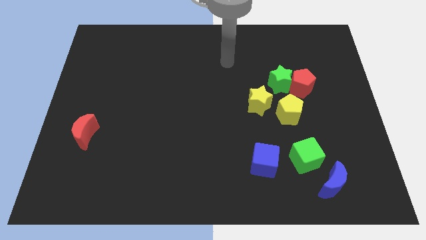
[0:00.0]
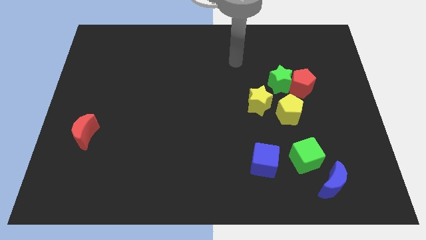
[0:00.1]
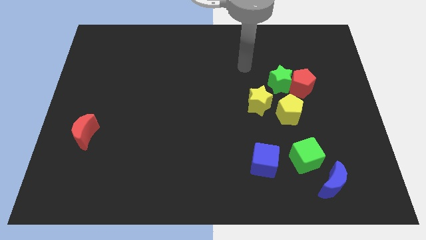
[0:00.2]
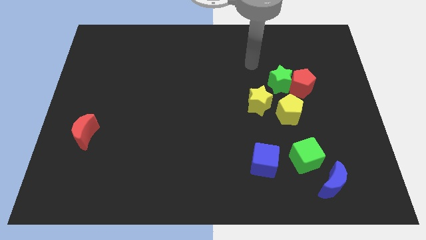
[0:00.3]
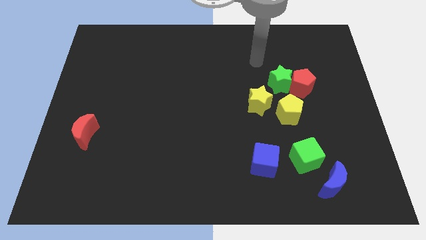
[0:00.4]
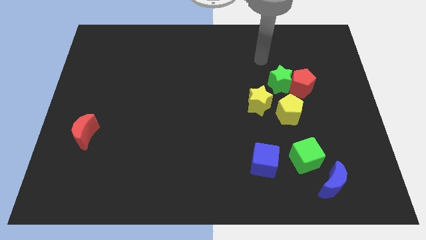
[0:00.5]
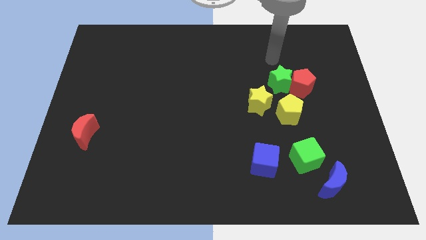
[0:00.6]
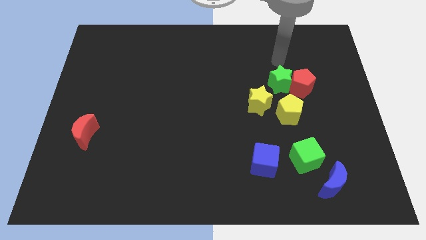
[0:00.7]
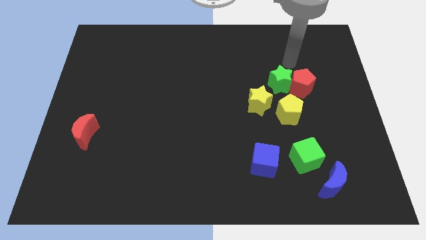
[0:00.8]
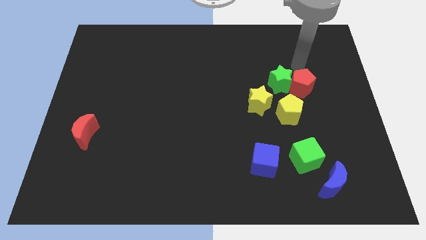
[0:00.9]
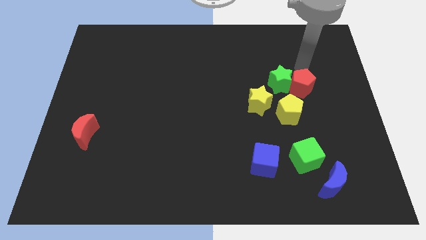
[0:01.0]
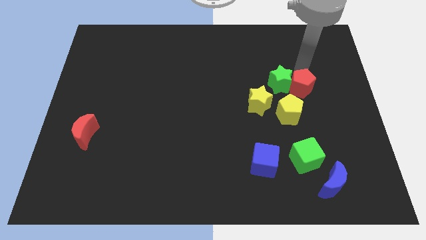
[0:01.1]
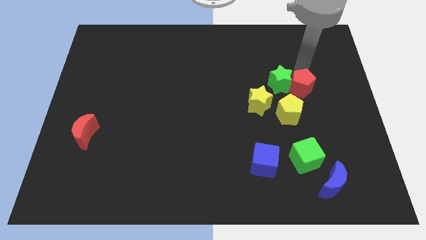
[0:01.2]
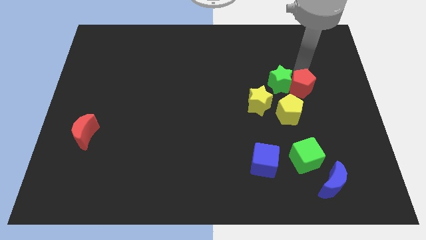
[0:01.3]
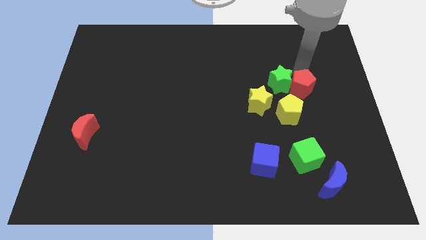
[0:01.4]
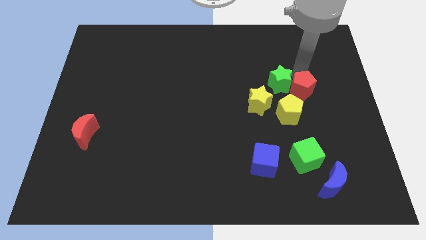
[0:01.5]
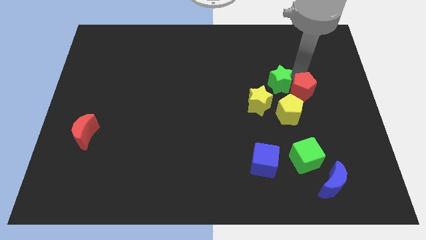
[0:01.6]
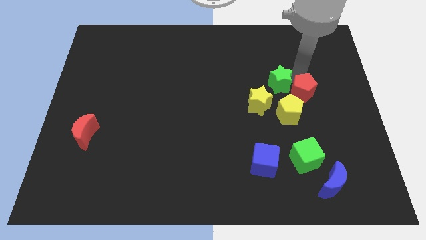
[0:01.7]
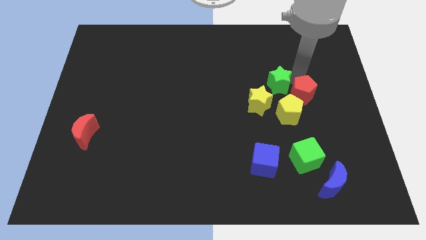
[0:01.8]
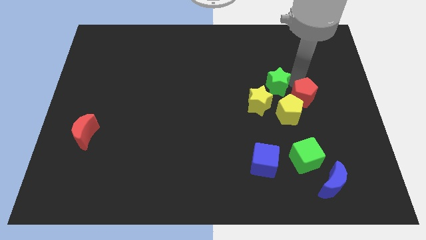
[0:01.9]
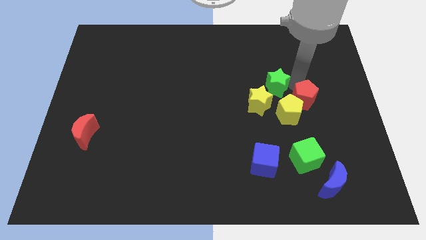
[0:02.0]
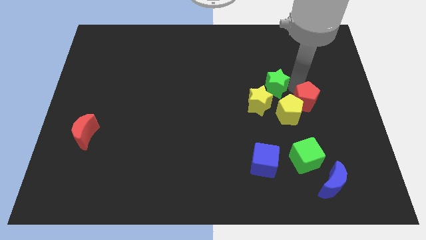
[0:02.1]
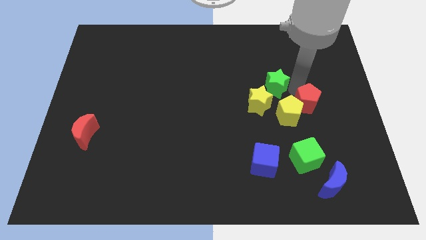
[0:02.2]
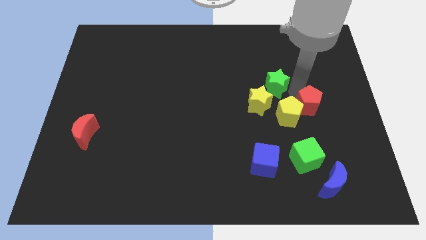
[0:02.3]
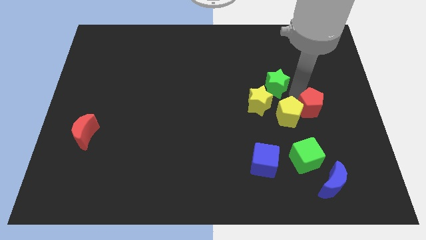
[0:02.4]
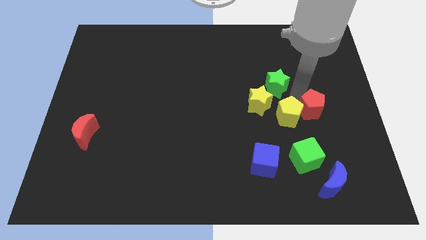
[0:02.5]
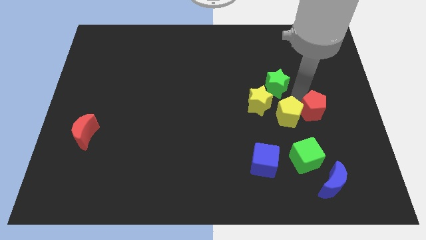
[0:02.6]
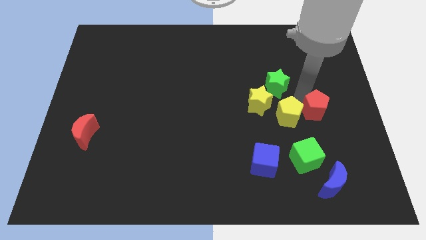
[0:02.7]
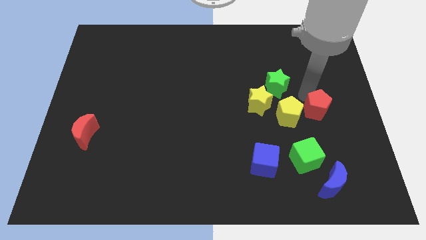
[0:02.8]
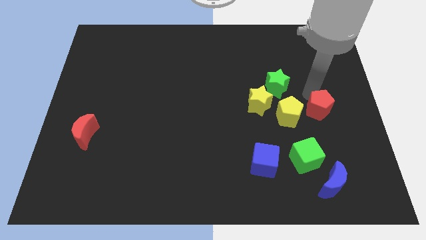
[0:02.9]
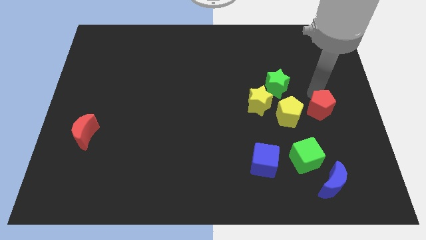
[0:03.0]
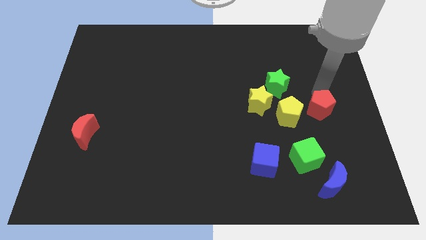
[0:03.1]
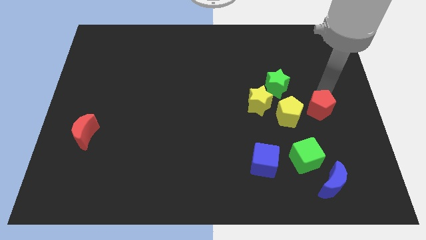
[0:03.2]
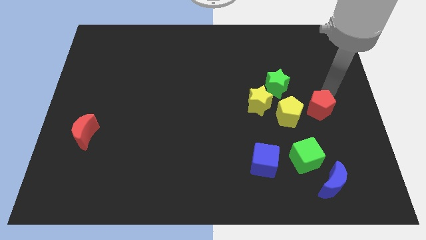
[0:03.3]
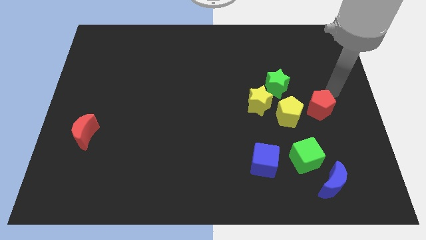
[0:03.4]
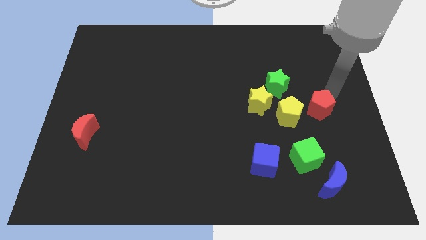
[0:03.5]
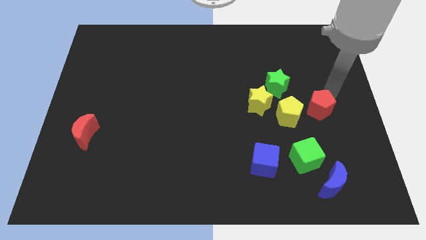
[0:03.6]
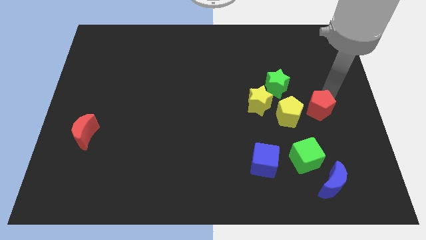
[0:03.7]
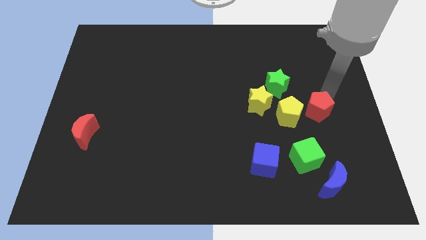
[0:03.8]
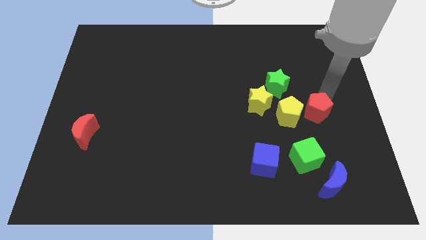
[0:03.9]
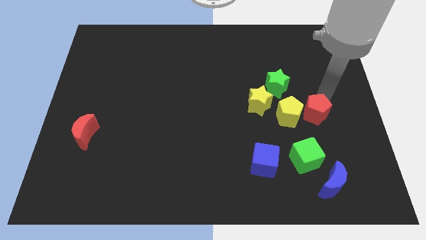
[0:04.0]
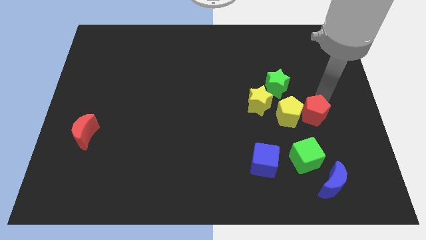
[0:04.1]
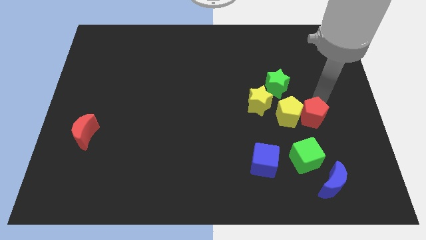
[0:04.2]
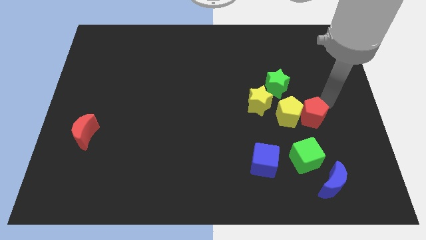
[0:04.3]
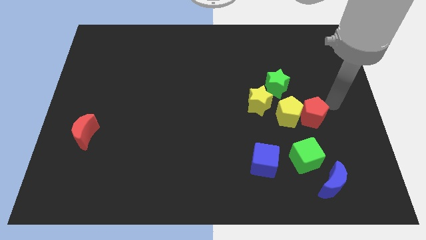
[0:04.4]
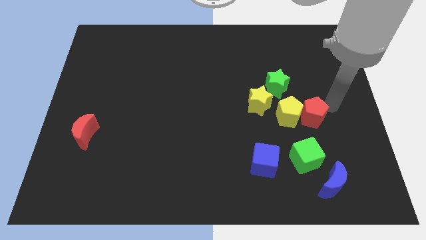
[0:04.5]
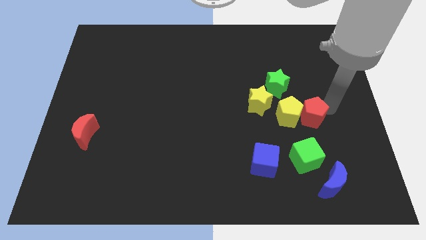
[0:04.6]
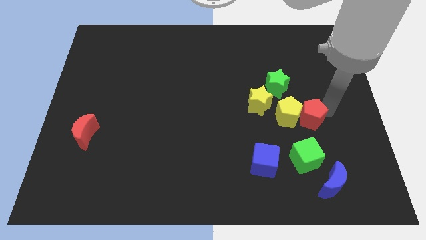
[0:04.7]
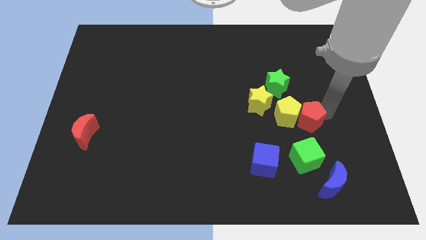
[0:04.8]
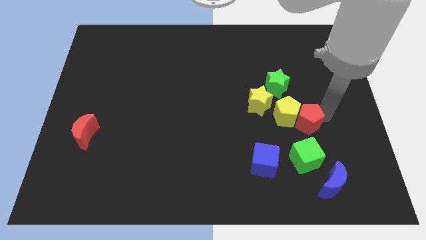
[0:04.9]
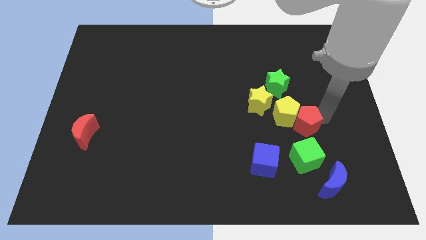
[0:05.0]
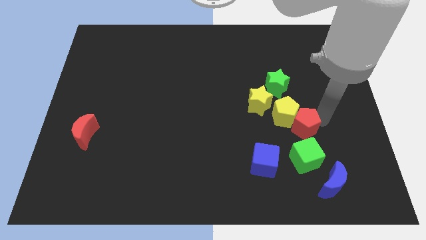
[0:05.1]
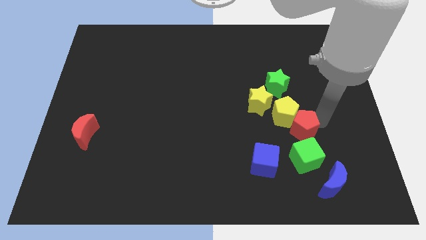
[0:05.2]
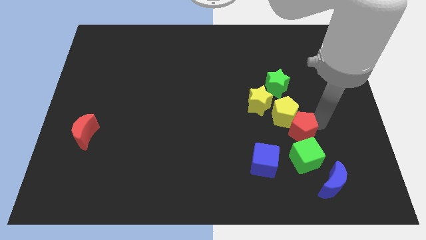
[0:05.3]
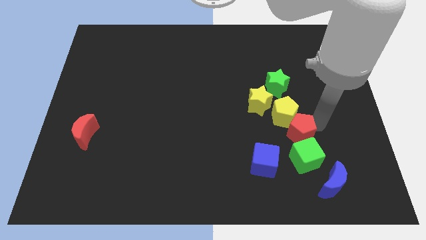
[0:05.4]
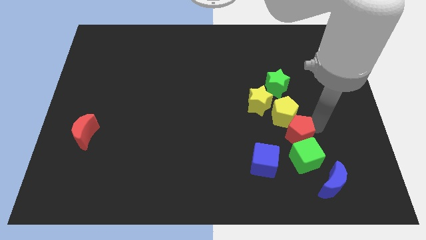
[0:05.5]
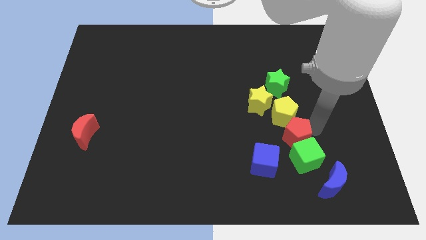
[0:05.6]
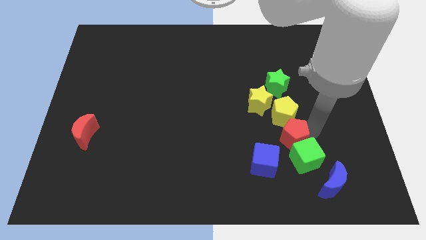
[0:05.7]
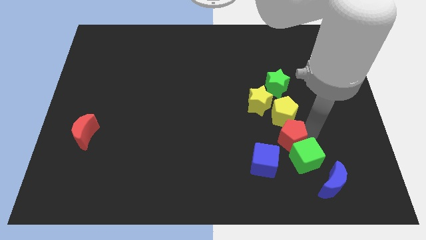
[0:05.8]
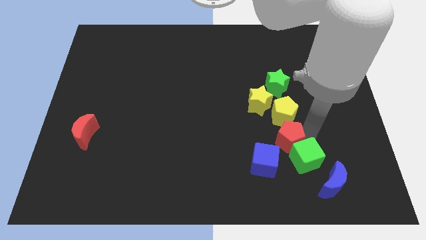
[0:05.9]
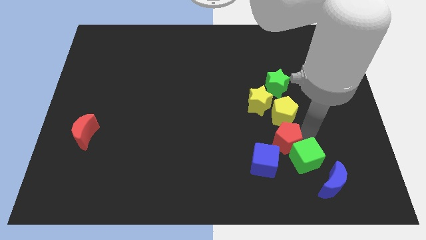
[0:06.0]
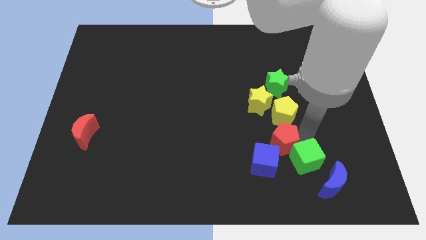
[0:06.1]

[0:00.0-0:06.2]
slide the red pentagon to the bottom of the yellow star

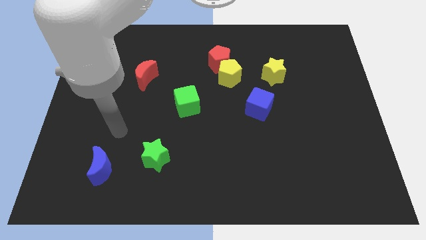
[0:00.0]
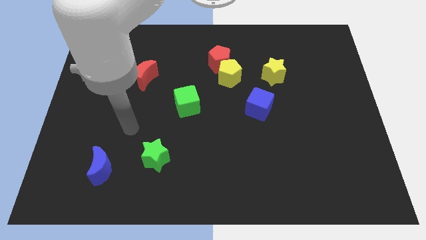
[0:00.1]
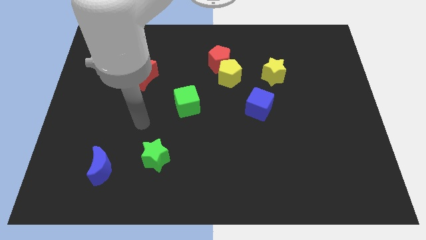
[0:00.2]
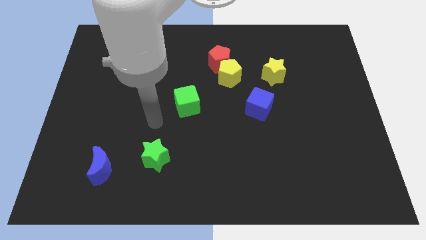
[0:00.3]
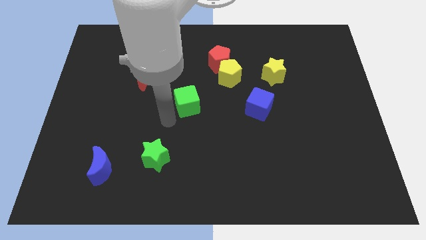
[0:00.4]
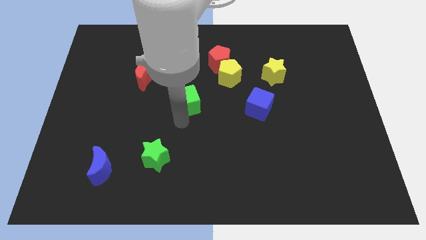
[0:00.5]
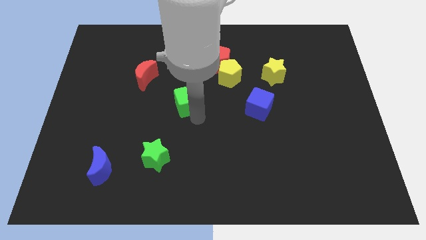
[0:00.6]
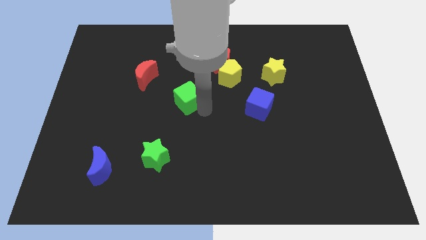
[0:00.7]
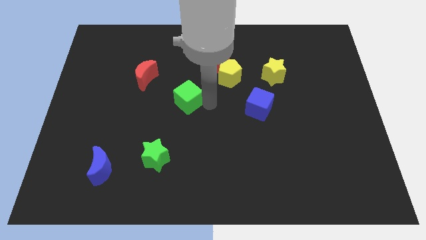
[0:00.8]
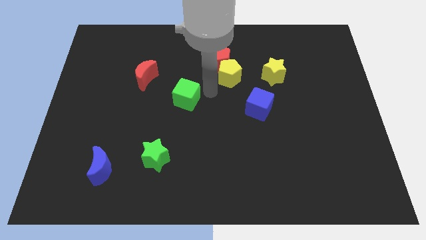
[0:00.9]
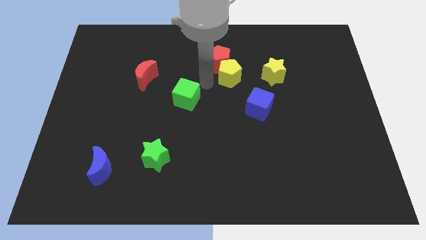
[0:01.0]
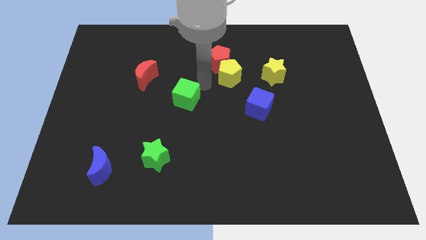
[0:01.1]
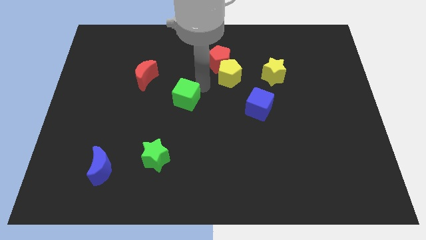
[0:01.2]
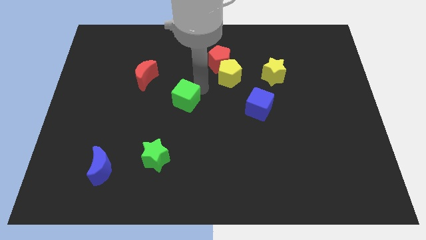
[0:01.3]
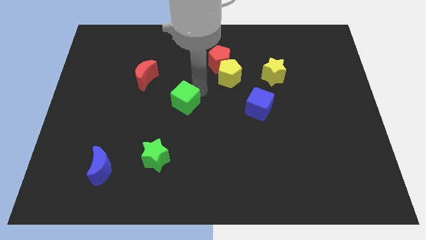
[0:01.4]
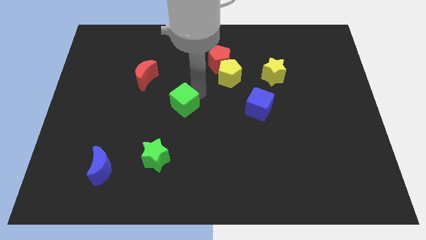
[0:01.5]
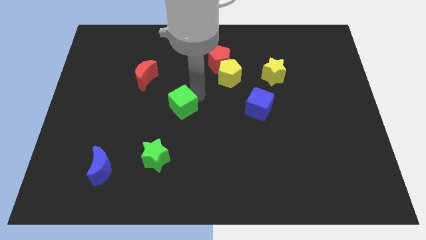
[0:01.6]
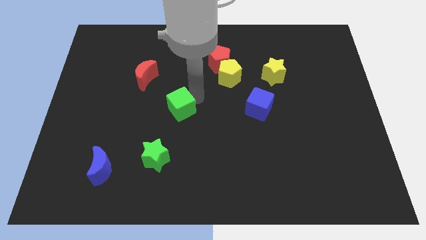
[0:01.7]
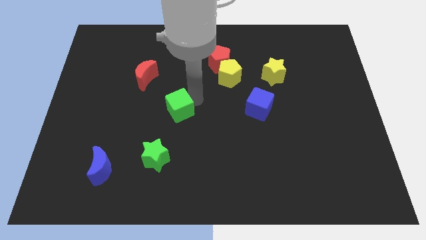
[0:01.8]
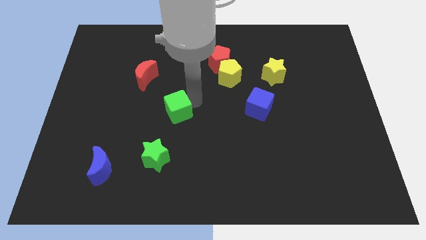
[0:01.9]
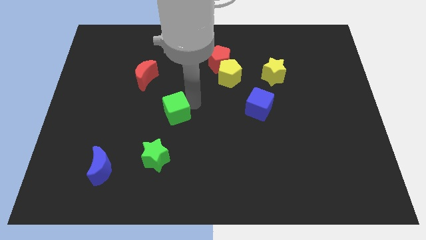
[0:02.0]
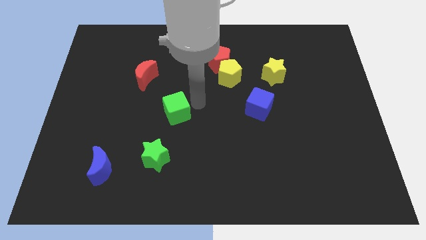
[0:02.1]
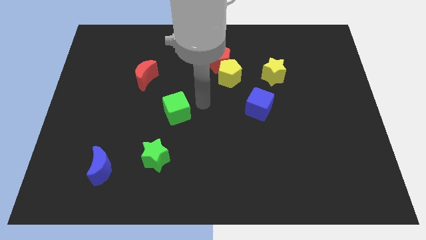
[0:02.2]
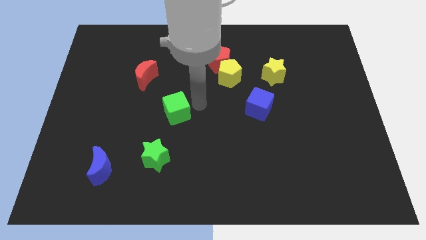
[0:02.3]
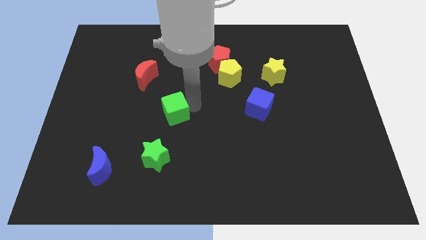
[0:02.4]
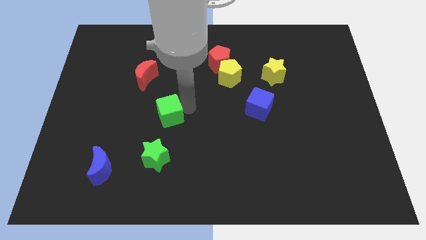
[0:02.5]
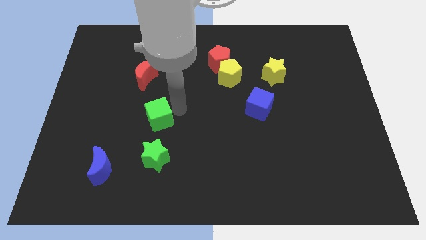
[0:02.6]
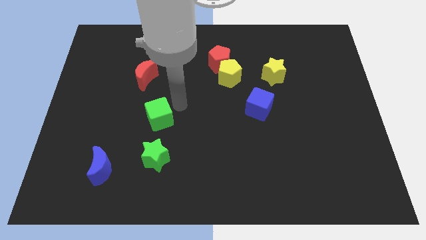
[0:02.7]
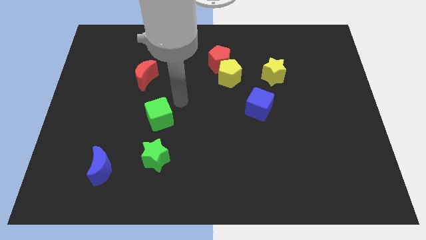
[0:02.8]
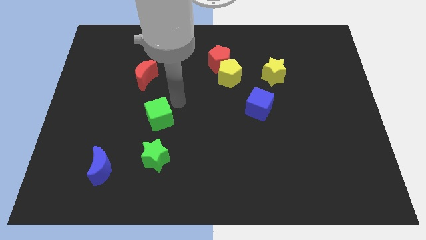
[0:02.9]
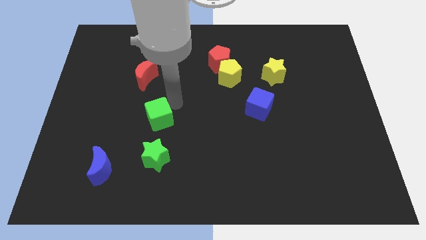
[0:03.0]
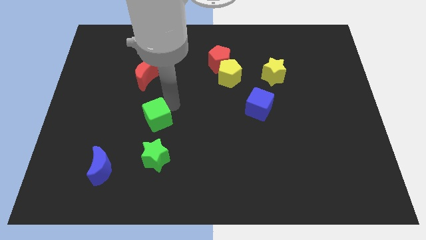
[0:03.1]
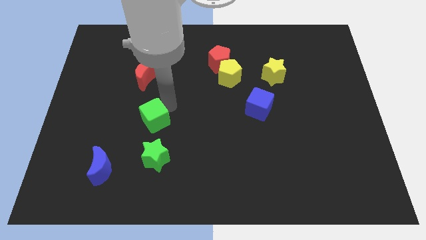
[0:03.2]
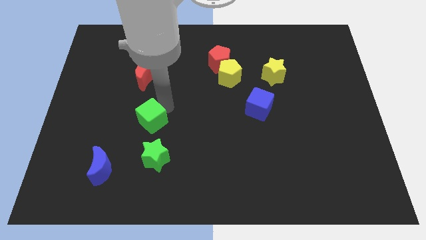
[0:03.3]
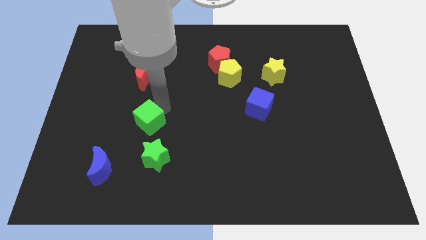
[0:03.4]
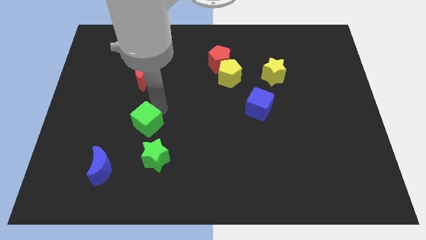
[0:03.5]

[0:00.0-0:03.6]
put the green cube diagonally up and to the left of the green star
